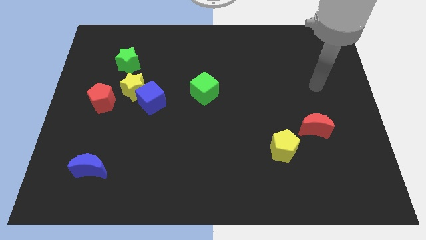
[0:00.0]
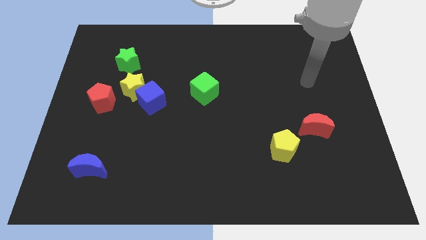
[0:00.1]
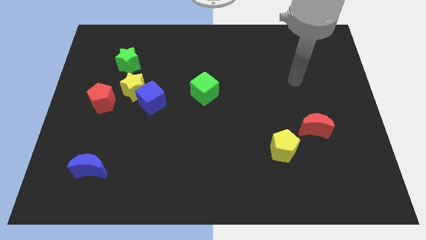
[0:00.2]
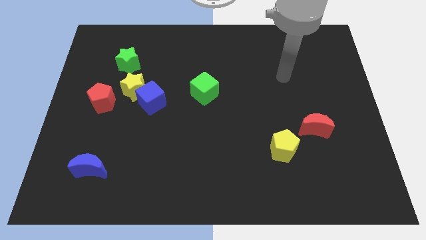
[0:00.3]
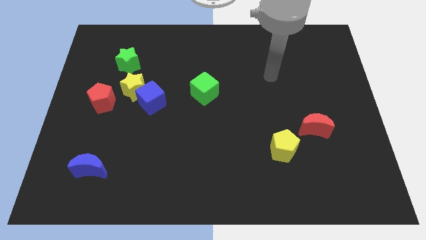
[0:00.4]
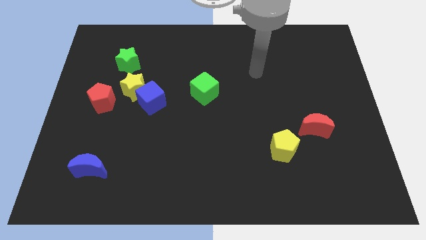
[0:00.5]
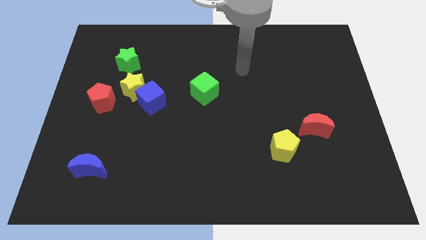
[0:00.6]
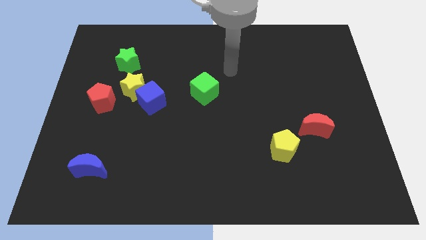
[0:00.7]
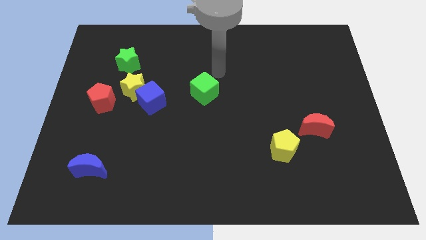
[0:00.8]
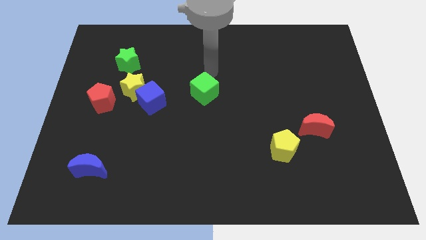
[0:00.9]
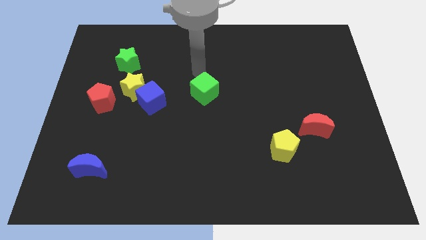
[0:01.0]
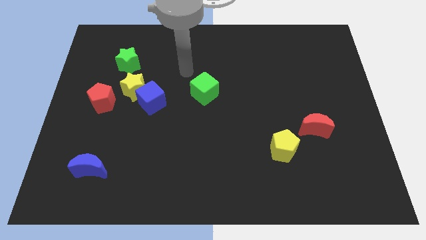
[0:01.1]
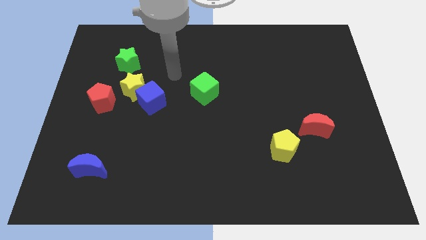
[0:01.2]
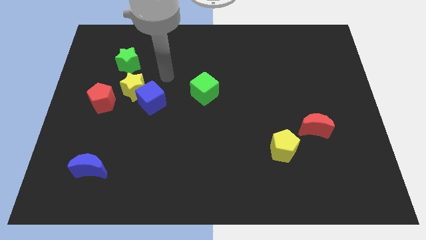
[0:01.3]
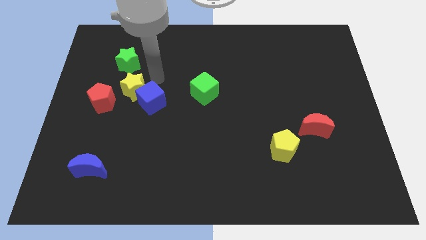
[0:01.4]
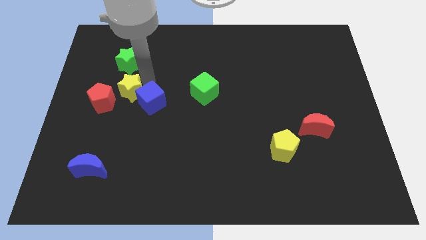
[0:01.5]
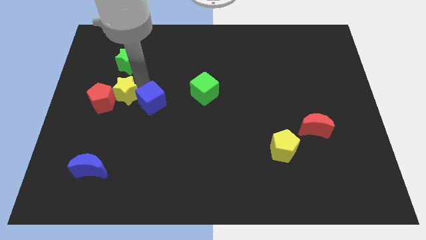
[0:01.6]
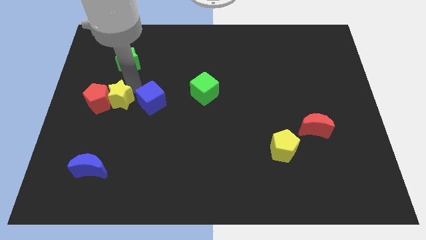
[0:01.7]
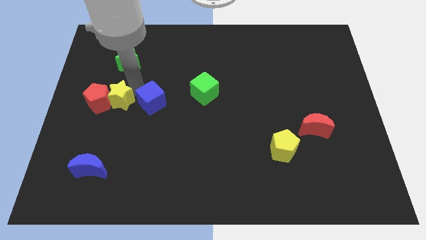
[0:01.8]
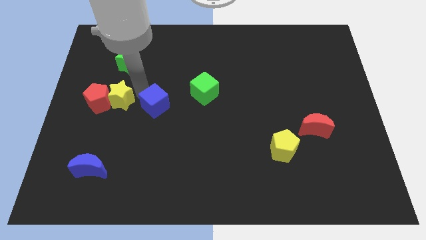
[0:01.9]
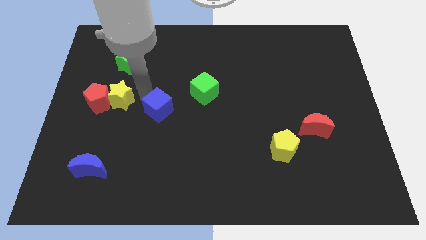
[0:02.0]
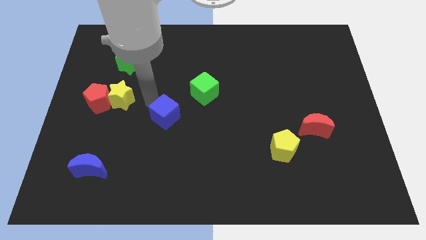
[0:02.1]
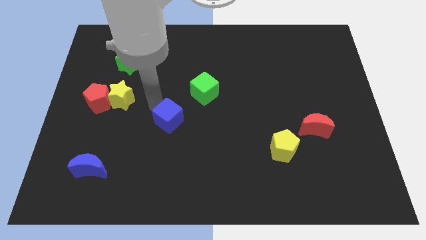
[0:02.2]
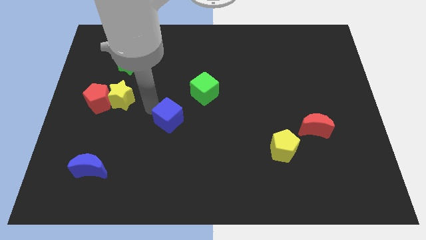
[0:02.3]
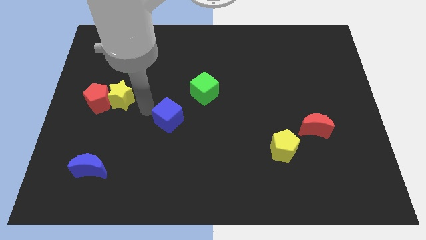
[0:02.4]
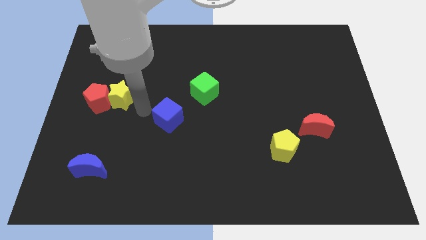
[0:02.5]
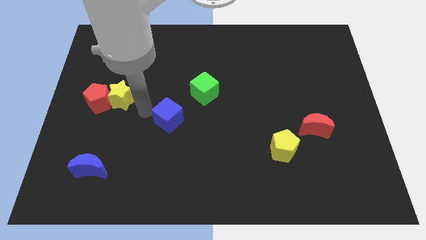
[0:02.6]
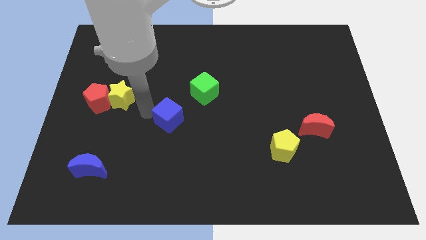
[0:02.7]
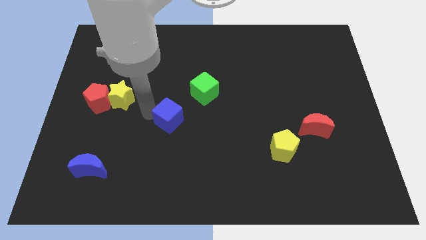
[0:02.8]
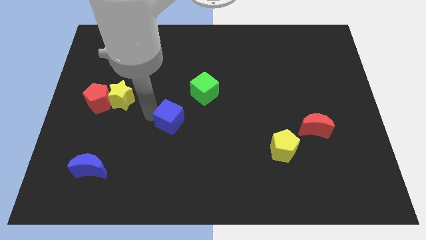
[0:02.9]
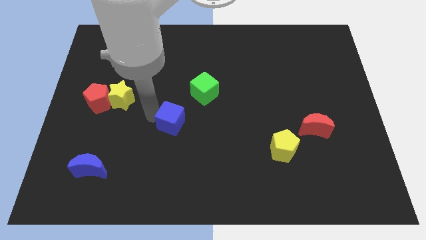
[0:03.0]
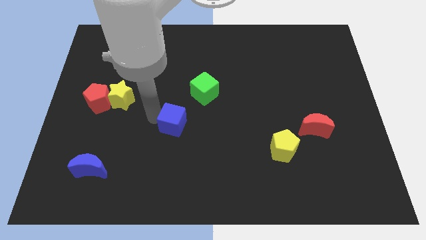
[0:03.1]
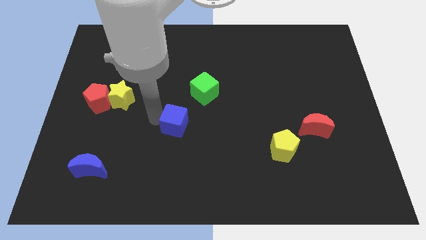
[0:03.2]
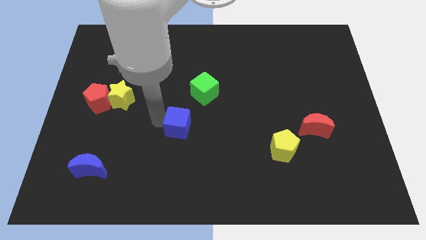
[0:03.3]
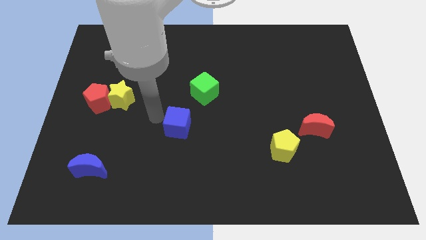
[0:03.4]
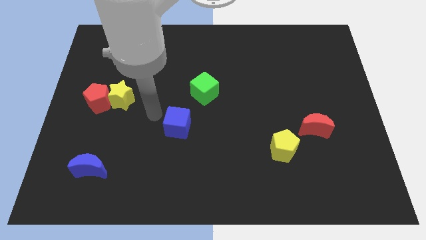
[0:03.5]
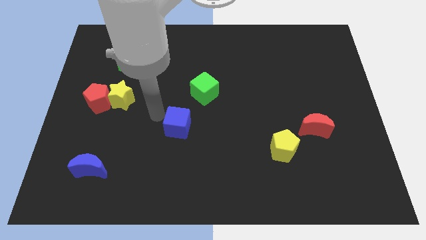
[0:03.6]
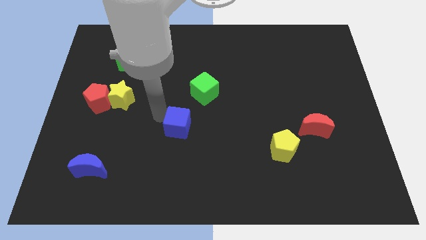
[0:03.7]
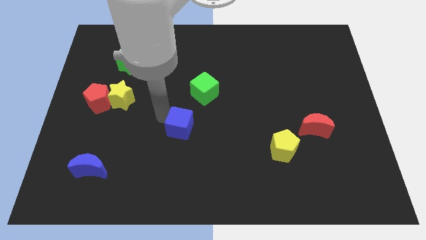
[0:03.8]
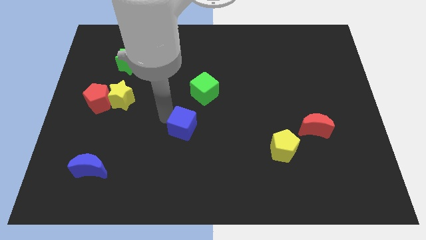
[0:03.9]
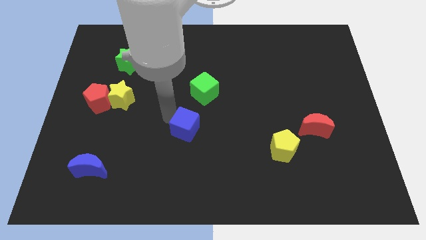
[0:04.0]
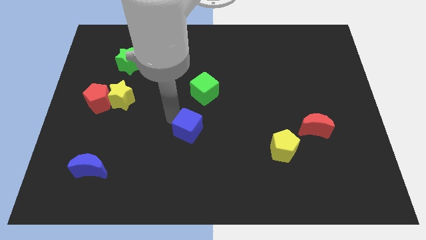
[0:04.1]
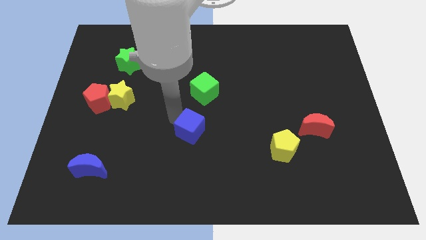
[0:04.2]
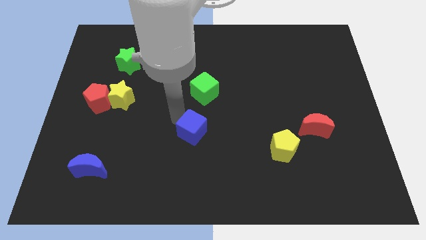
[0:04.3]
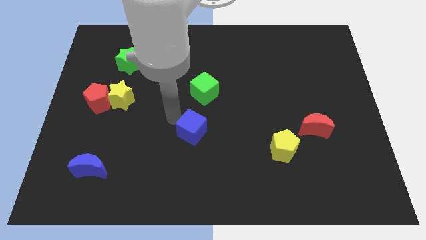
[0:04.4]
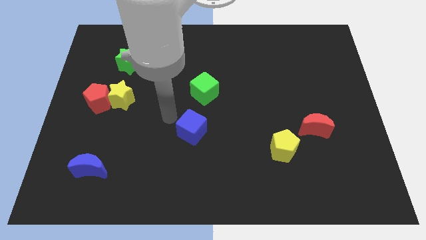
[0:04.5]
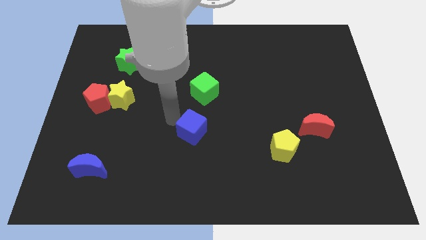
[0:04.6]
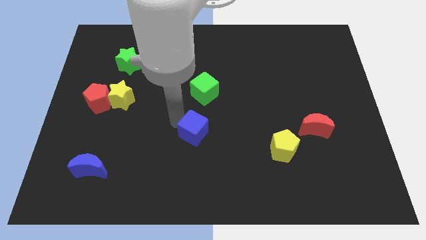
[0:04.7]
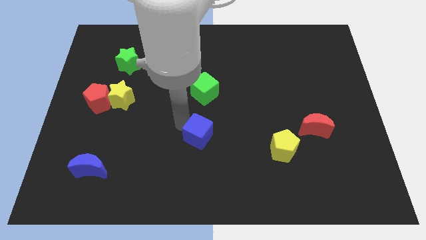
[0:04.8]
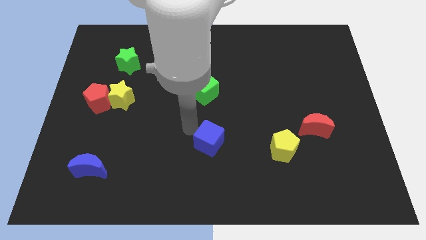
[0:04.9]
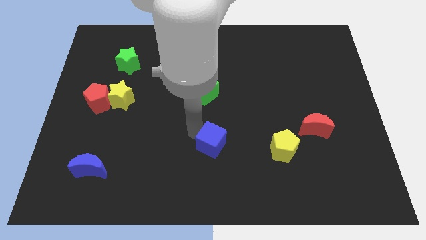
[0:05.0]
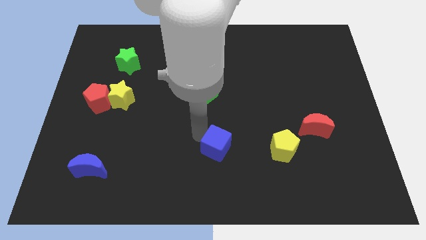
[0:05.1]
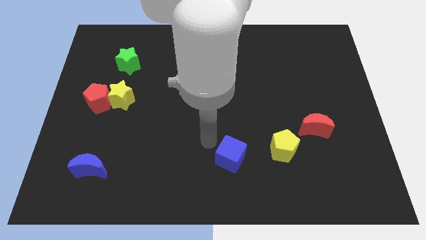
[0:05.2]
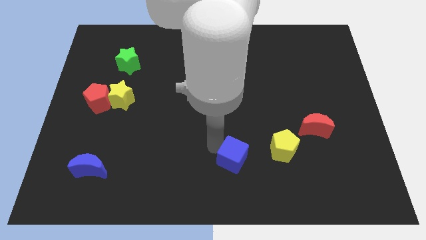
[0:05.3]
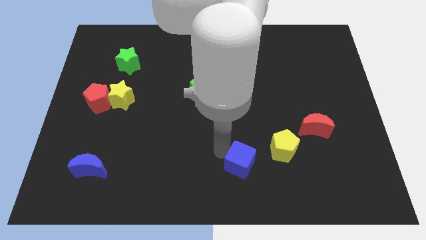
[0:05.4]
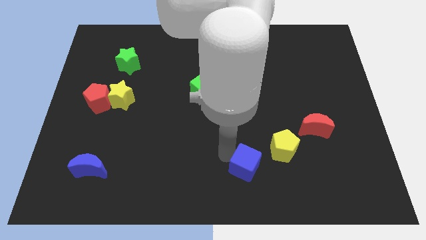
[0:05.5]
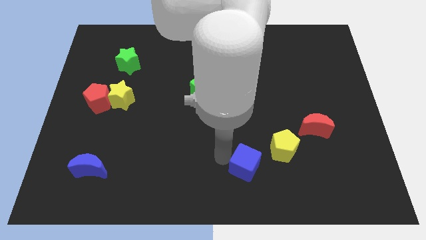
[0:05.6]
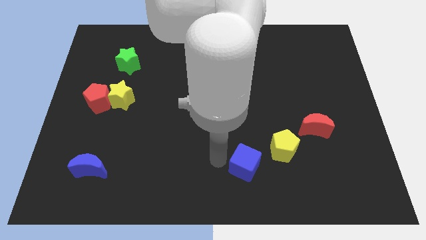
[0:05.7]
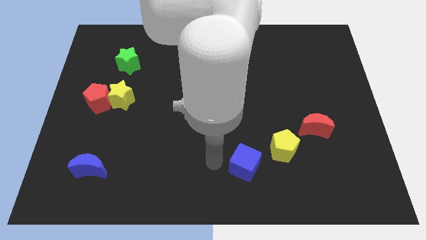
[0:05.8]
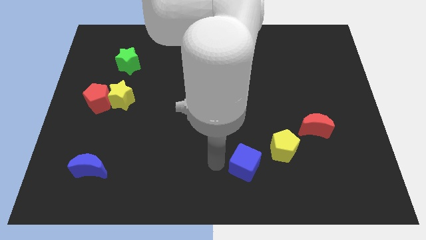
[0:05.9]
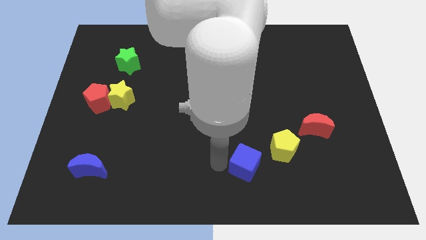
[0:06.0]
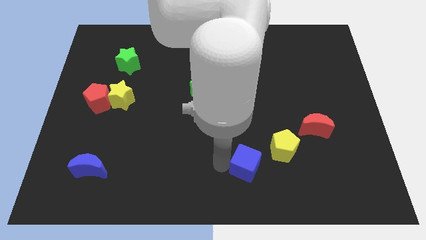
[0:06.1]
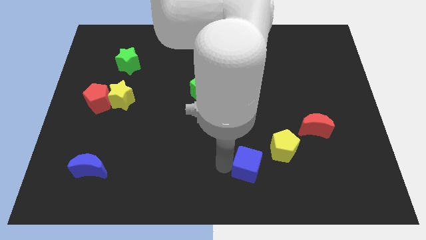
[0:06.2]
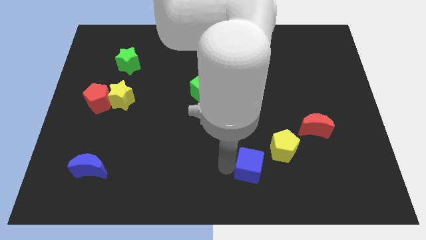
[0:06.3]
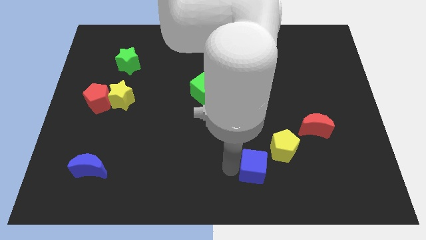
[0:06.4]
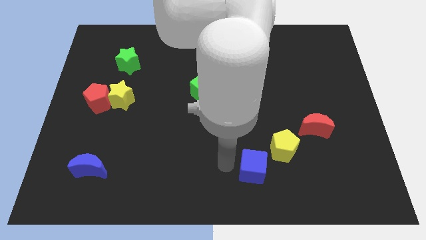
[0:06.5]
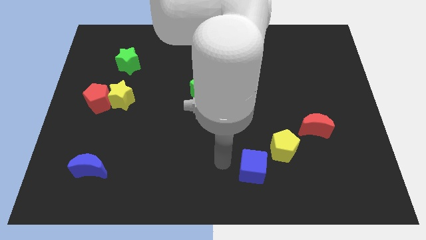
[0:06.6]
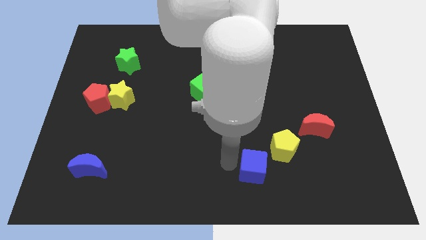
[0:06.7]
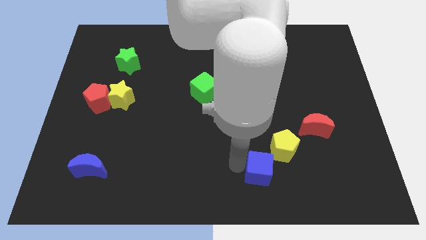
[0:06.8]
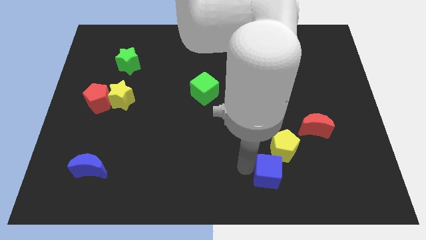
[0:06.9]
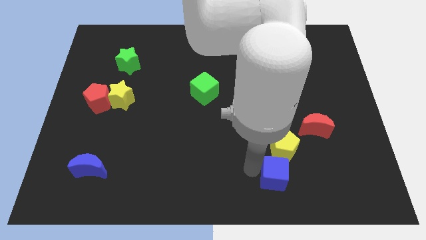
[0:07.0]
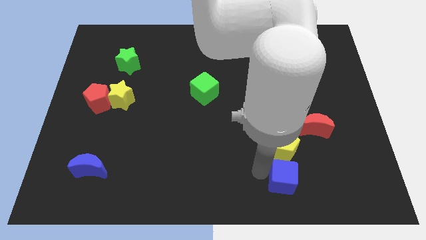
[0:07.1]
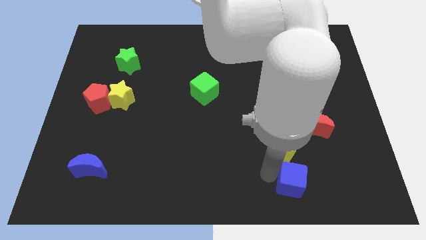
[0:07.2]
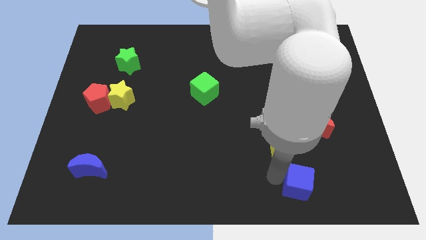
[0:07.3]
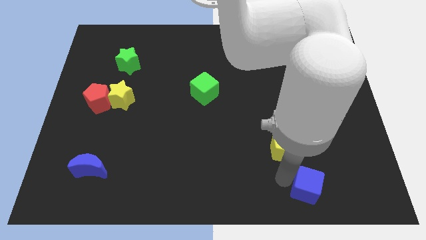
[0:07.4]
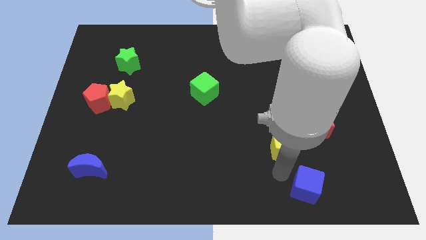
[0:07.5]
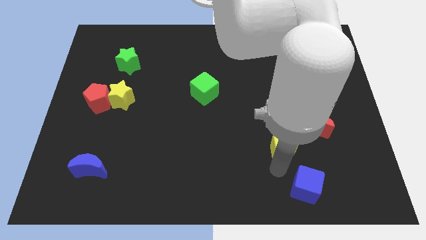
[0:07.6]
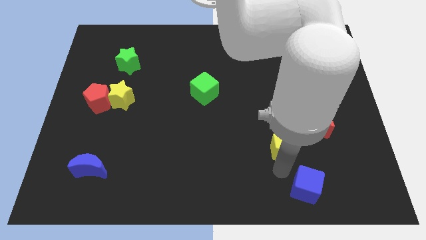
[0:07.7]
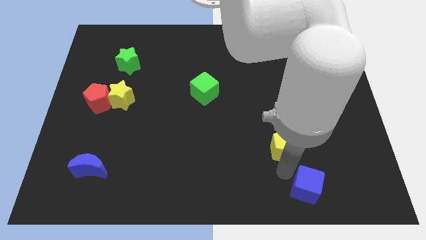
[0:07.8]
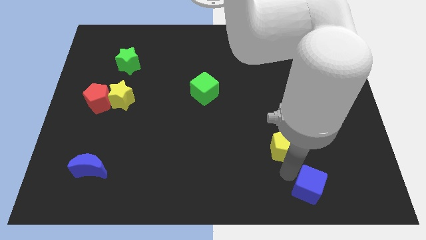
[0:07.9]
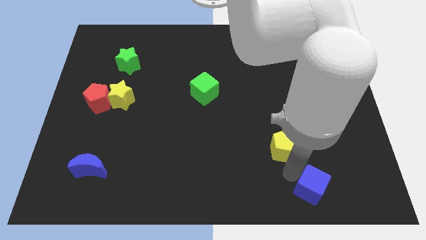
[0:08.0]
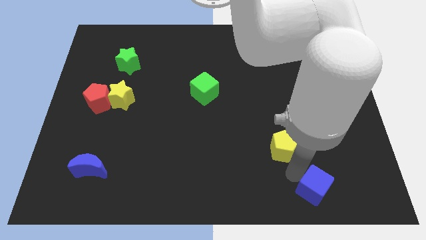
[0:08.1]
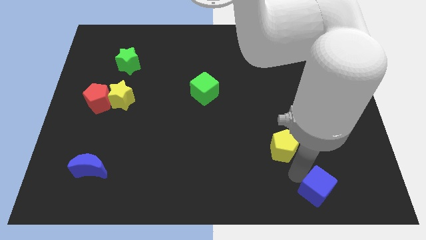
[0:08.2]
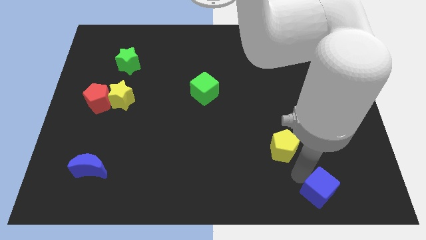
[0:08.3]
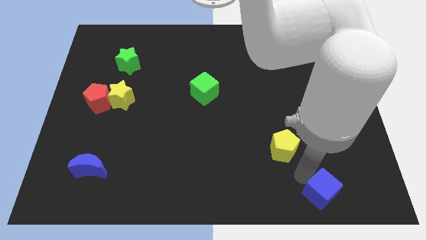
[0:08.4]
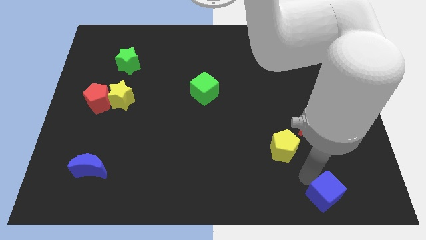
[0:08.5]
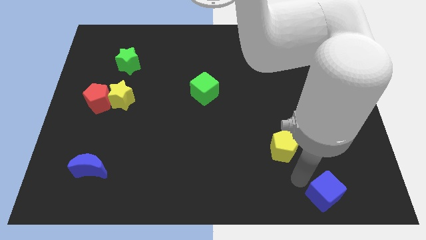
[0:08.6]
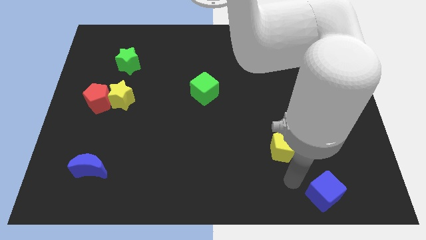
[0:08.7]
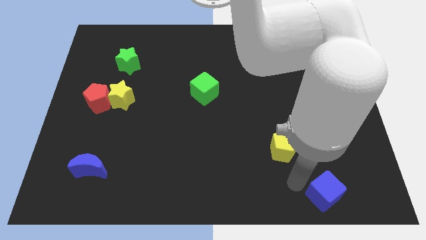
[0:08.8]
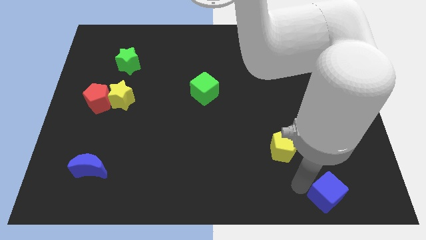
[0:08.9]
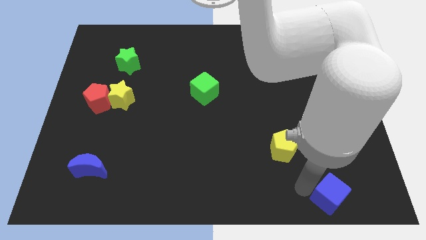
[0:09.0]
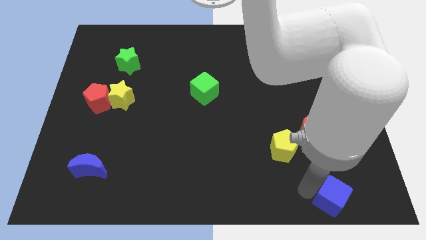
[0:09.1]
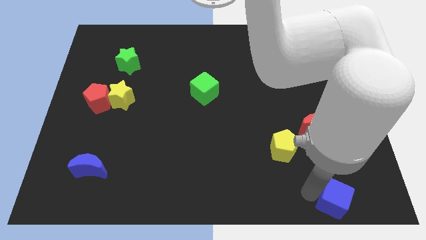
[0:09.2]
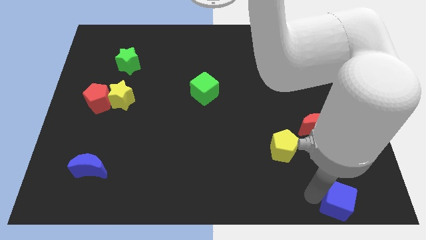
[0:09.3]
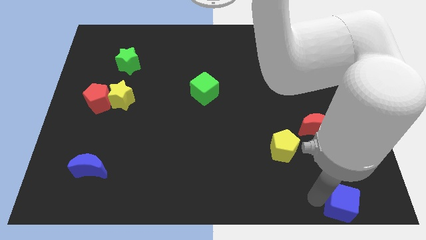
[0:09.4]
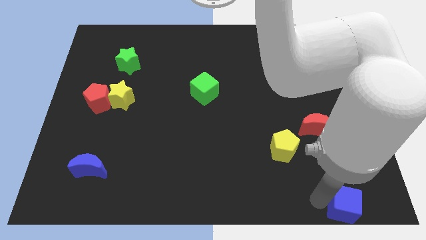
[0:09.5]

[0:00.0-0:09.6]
push the blue cube to the lower right corner
